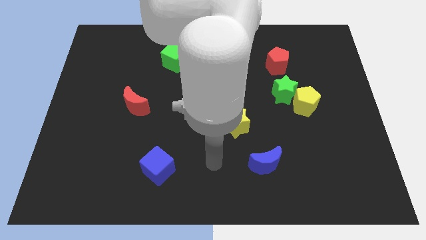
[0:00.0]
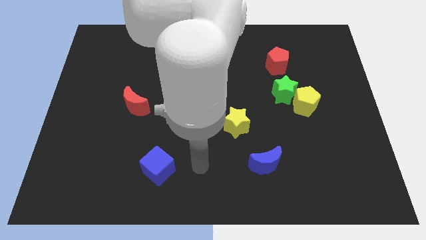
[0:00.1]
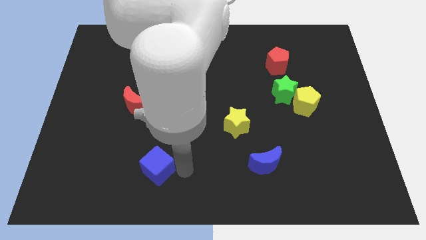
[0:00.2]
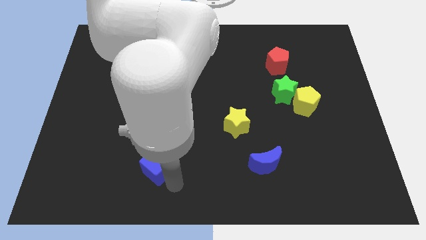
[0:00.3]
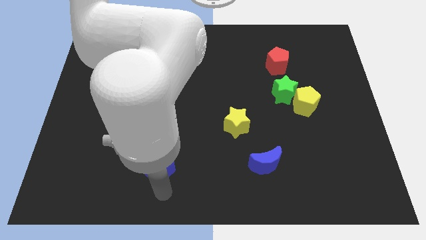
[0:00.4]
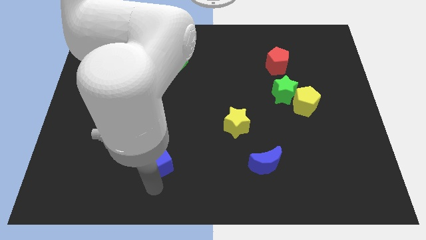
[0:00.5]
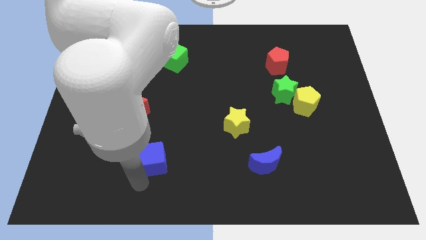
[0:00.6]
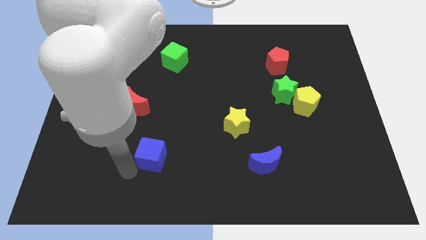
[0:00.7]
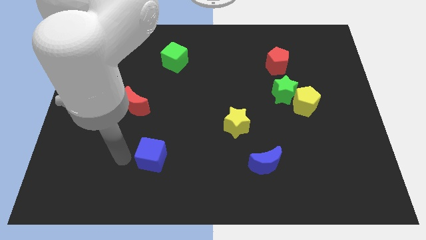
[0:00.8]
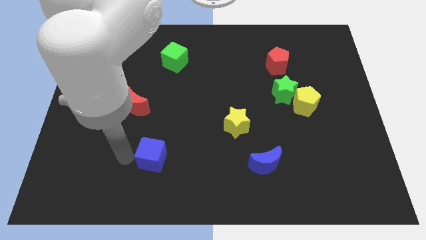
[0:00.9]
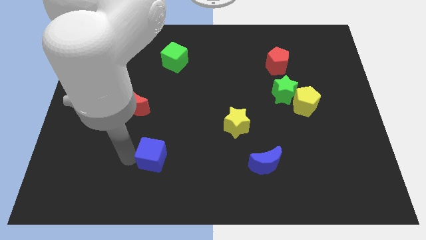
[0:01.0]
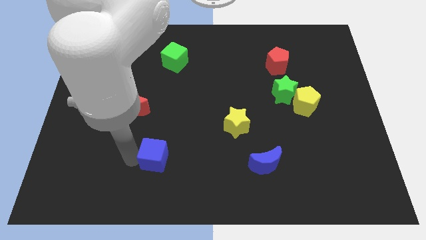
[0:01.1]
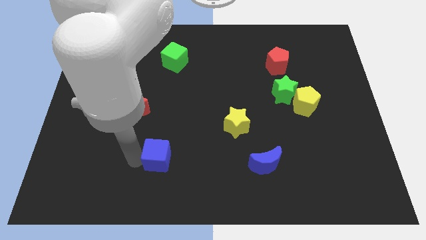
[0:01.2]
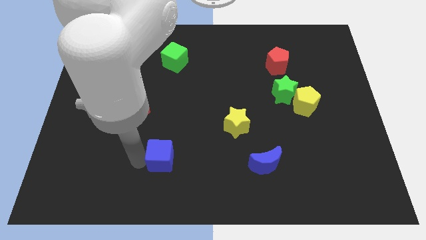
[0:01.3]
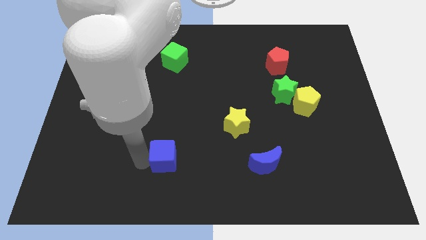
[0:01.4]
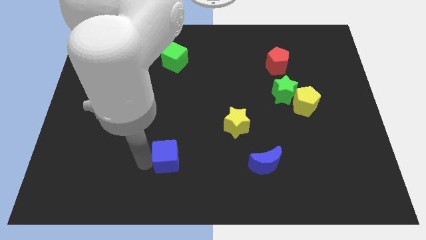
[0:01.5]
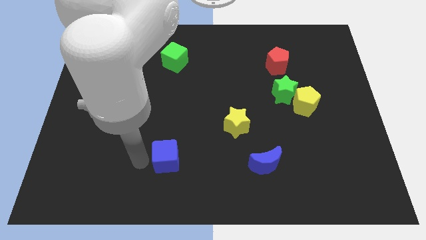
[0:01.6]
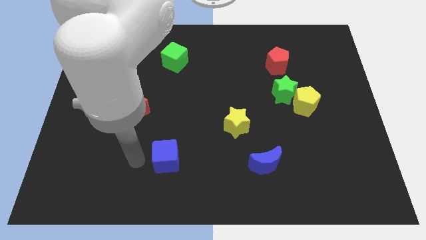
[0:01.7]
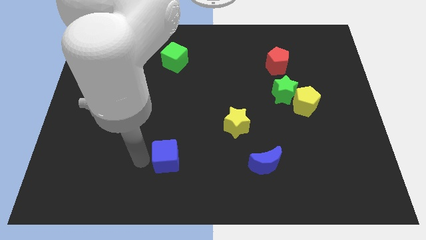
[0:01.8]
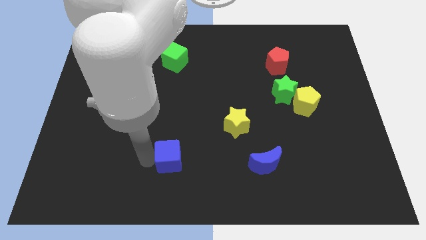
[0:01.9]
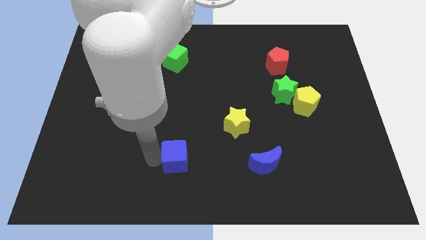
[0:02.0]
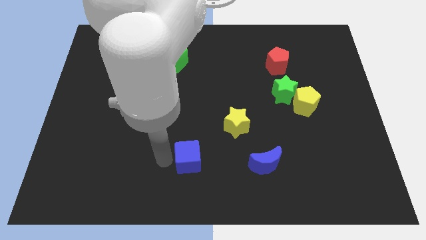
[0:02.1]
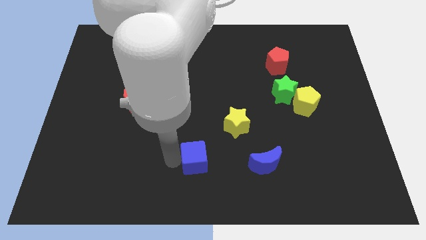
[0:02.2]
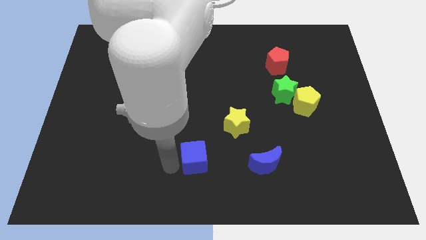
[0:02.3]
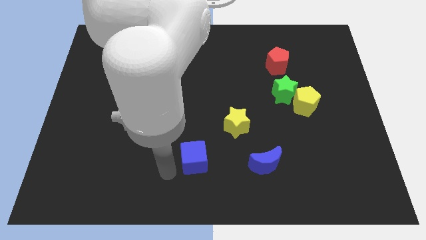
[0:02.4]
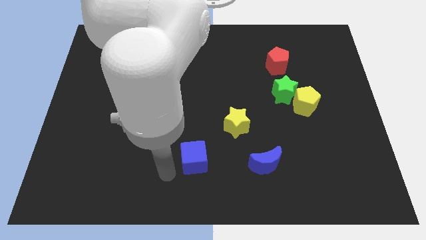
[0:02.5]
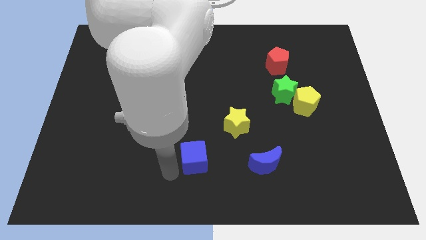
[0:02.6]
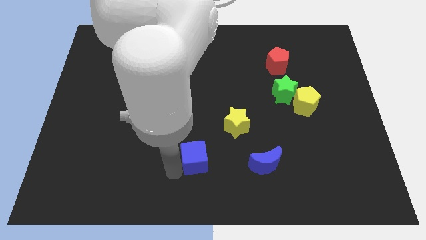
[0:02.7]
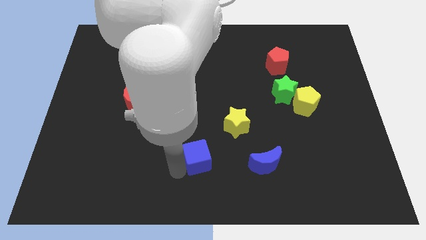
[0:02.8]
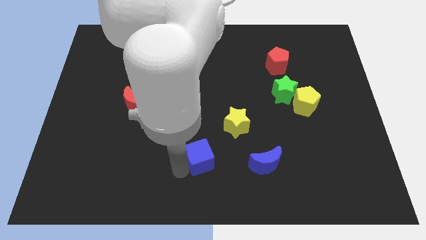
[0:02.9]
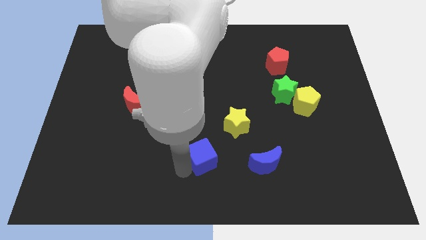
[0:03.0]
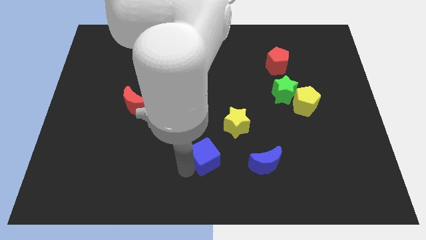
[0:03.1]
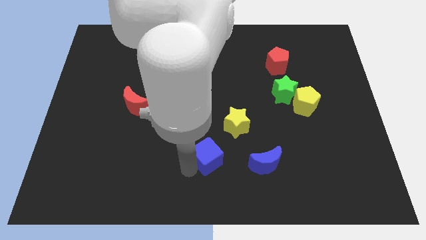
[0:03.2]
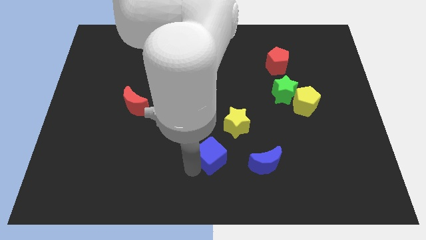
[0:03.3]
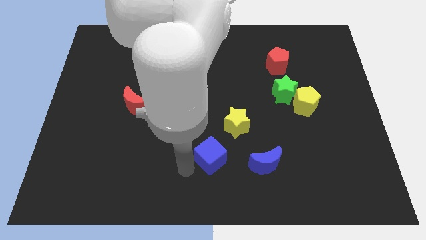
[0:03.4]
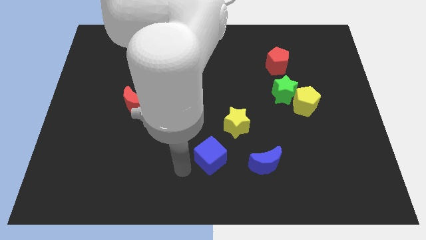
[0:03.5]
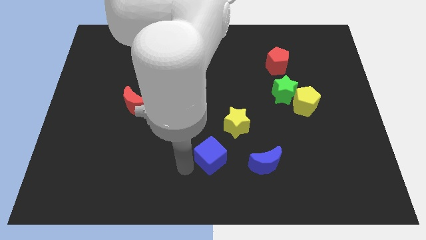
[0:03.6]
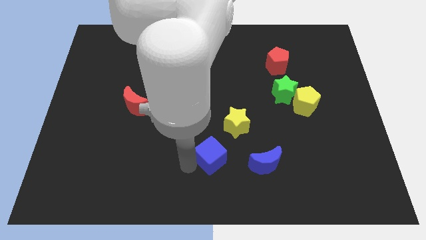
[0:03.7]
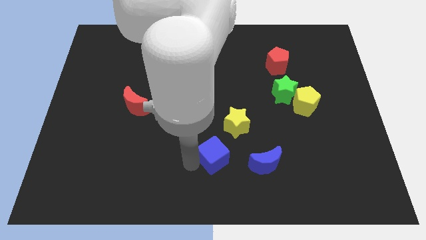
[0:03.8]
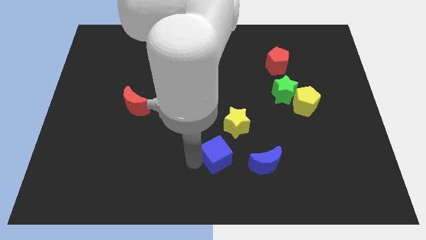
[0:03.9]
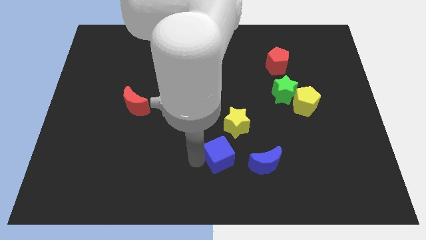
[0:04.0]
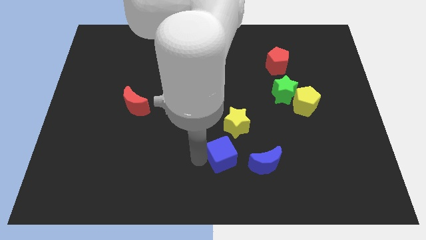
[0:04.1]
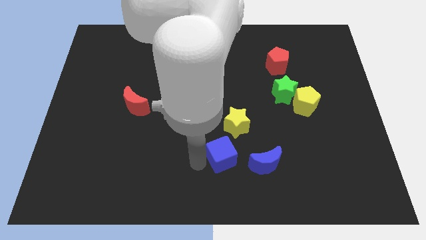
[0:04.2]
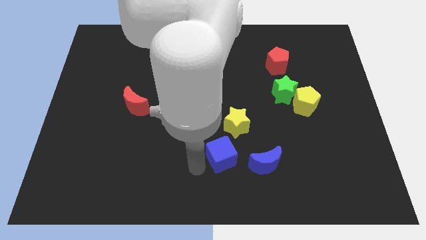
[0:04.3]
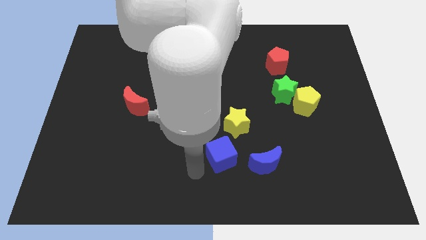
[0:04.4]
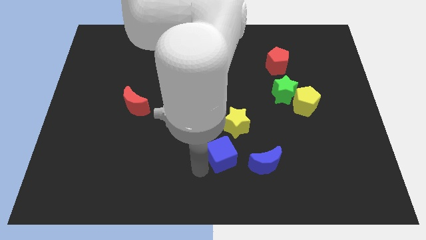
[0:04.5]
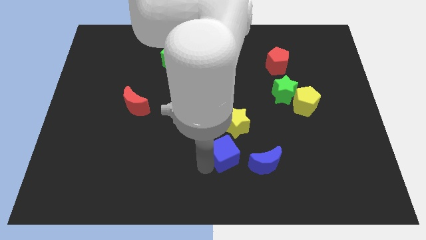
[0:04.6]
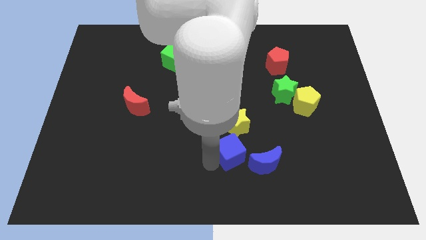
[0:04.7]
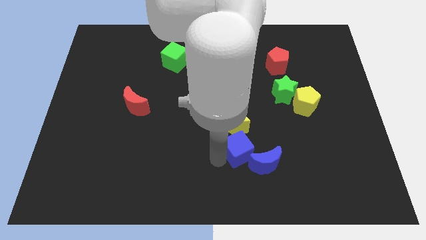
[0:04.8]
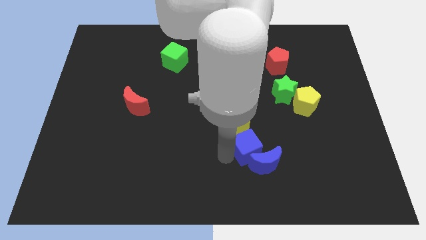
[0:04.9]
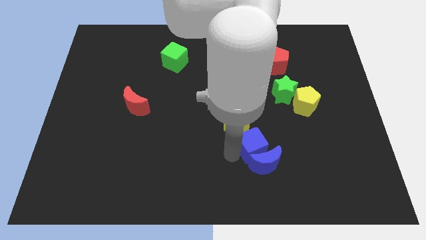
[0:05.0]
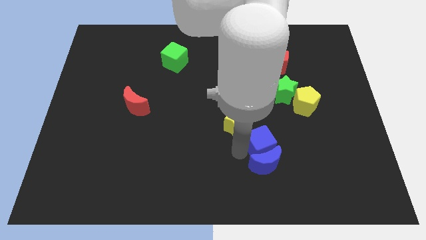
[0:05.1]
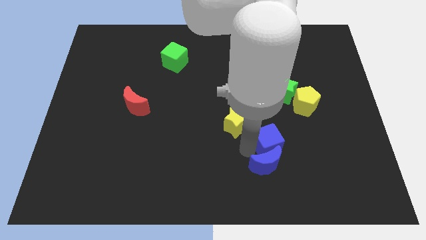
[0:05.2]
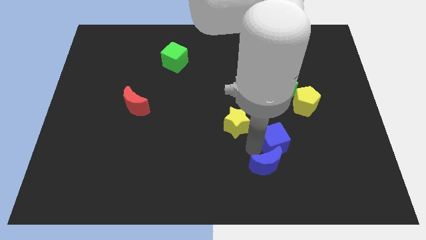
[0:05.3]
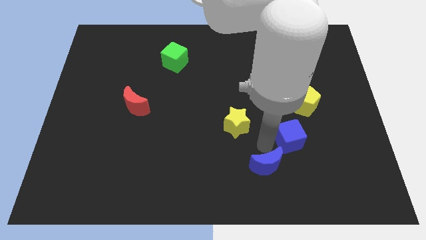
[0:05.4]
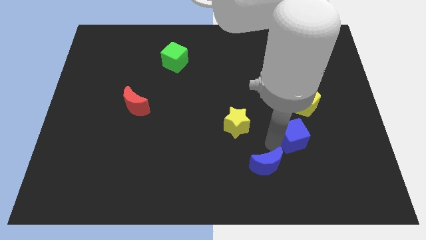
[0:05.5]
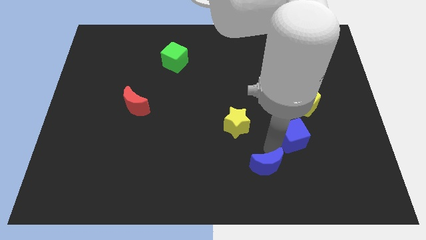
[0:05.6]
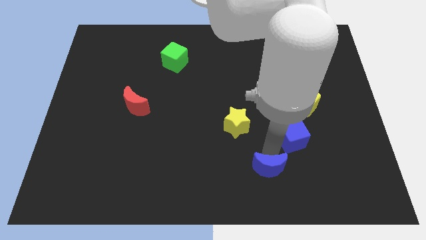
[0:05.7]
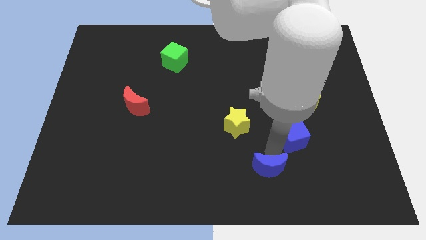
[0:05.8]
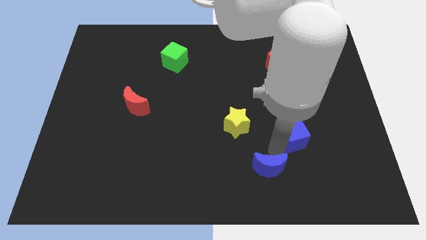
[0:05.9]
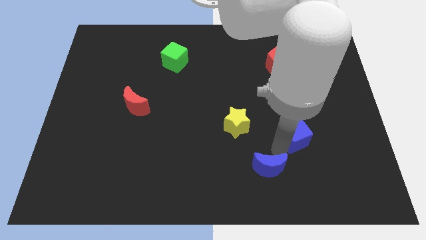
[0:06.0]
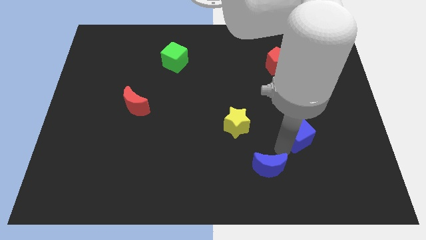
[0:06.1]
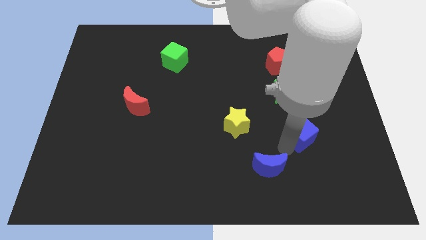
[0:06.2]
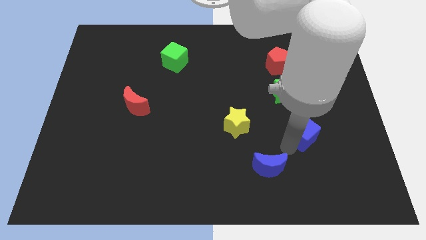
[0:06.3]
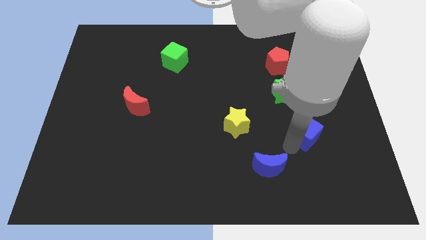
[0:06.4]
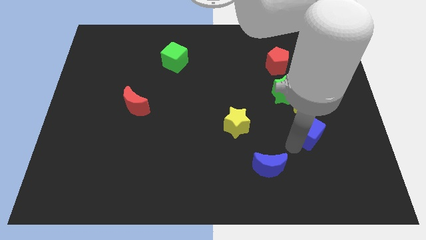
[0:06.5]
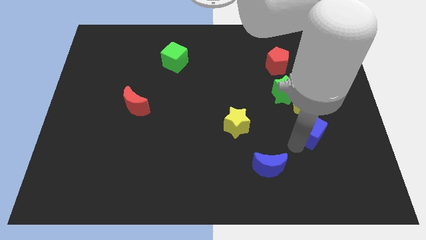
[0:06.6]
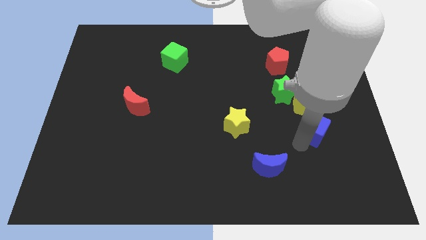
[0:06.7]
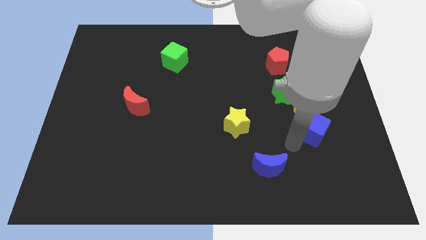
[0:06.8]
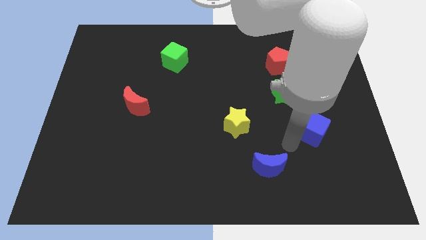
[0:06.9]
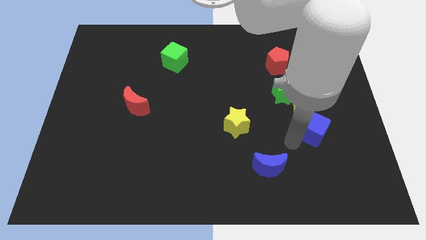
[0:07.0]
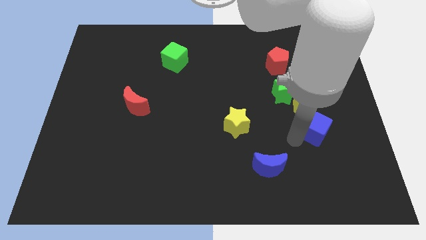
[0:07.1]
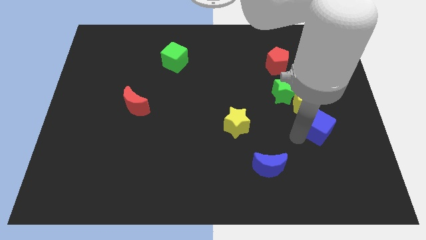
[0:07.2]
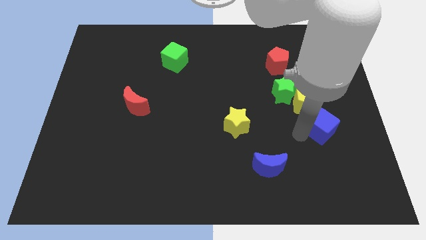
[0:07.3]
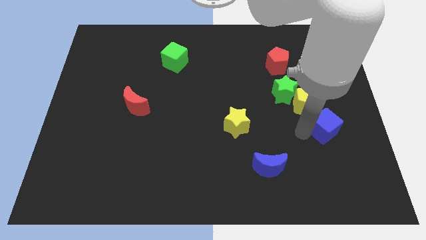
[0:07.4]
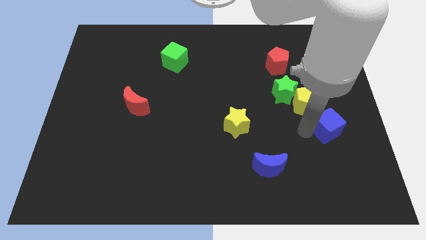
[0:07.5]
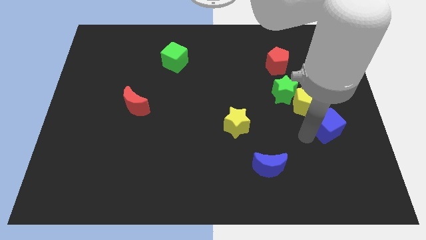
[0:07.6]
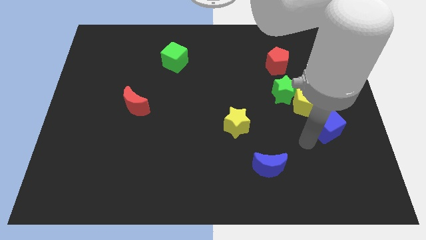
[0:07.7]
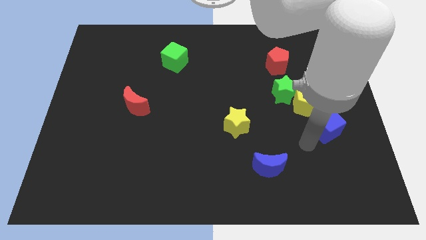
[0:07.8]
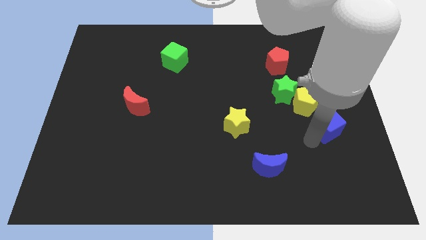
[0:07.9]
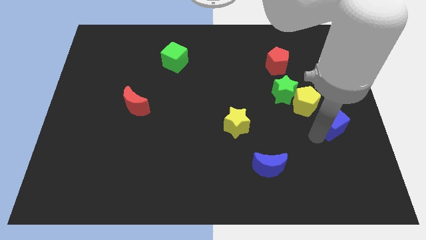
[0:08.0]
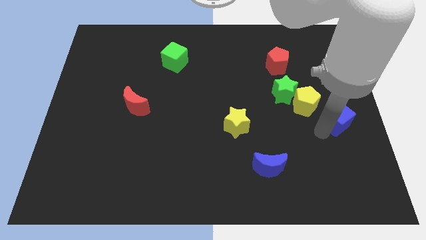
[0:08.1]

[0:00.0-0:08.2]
move the blue cube to the right side of the board
